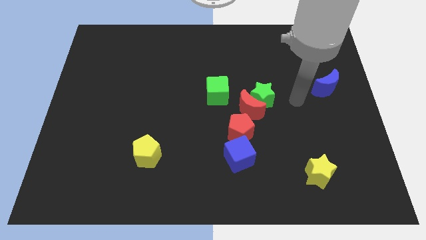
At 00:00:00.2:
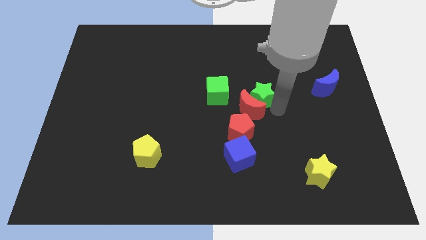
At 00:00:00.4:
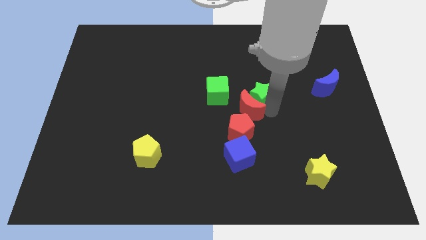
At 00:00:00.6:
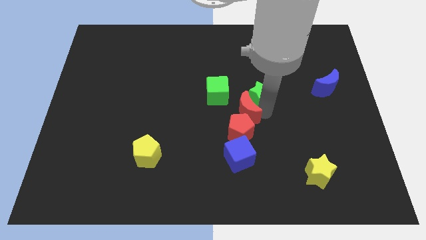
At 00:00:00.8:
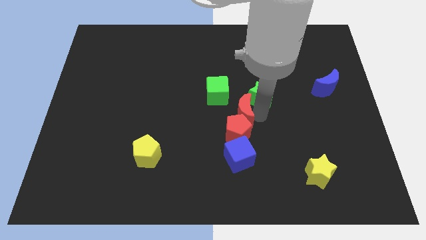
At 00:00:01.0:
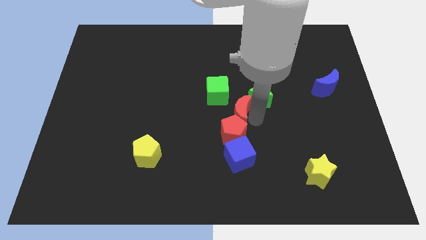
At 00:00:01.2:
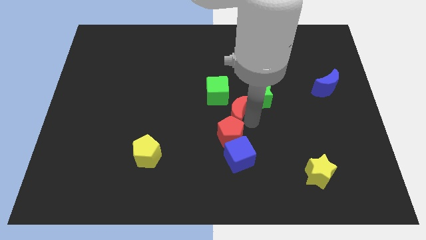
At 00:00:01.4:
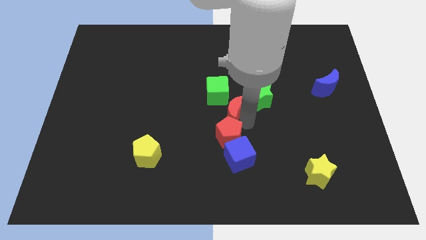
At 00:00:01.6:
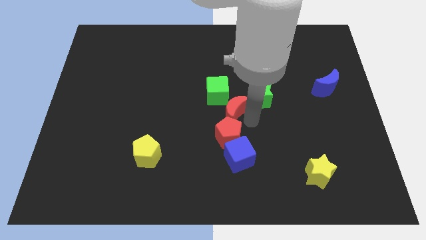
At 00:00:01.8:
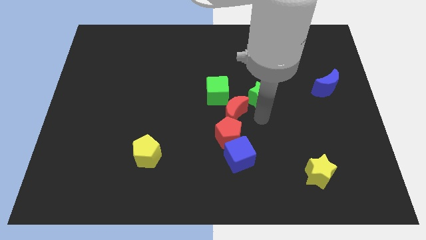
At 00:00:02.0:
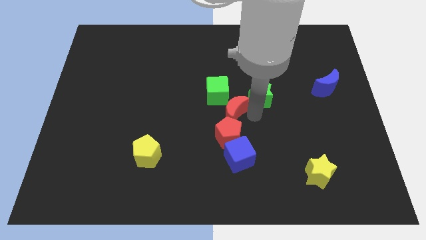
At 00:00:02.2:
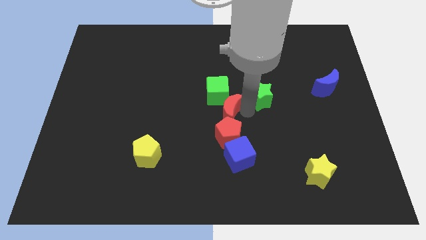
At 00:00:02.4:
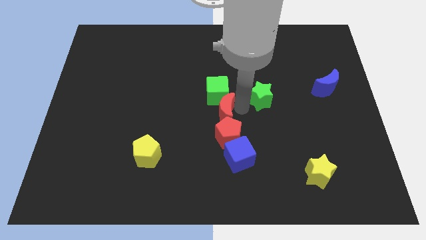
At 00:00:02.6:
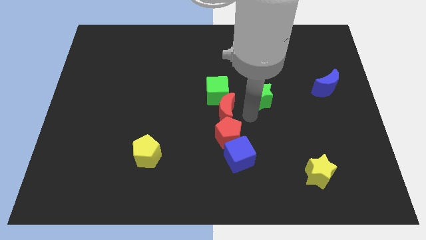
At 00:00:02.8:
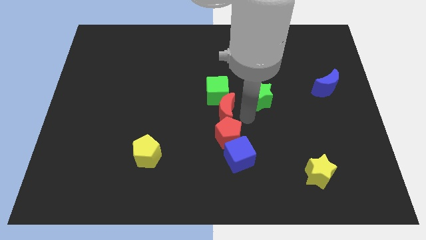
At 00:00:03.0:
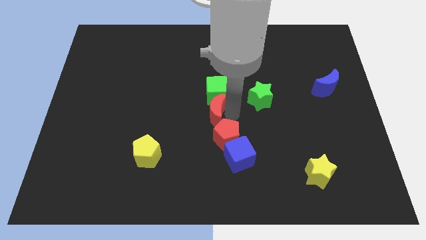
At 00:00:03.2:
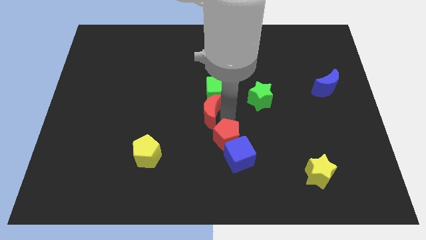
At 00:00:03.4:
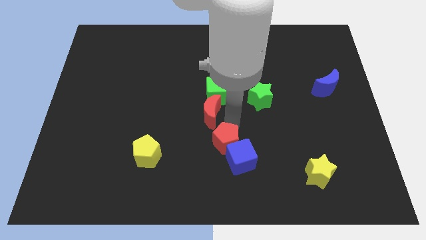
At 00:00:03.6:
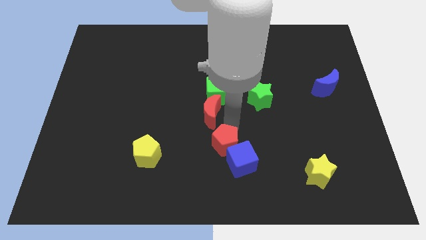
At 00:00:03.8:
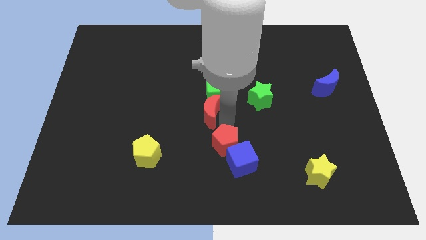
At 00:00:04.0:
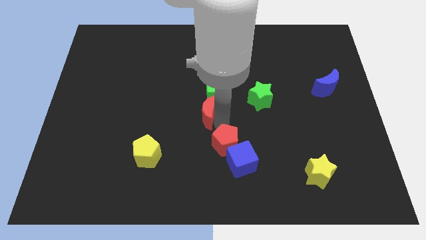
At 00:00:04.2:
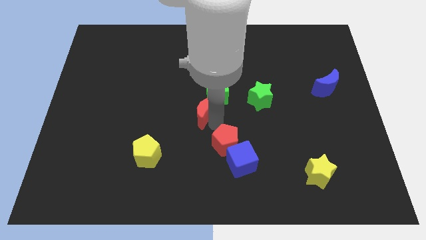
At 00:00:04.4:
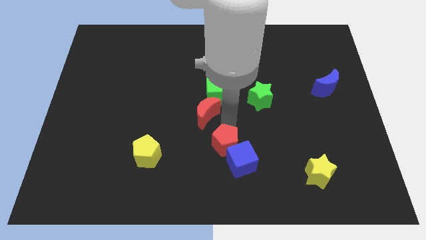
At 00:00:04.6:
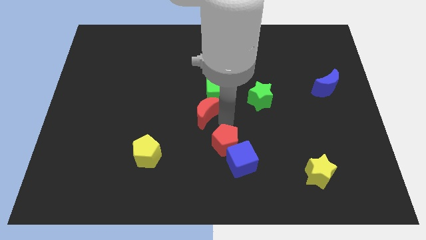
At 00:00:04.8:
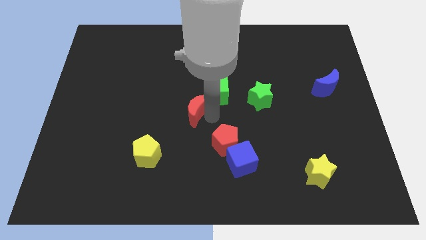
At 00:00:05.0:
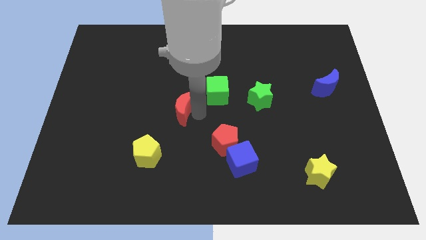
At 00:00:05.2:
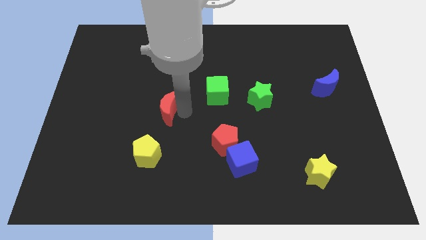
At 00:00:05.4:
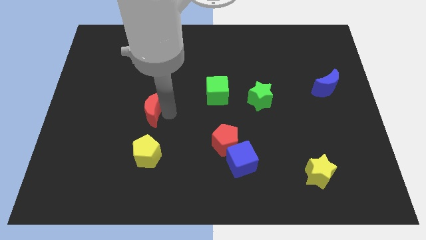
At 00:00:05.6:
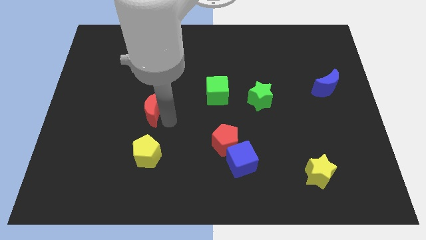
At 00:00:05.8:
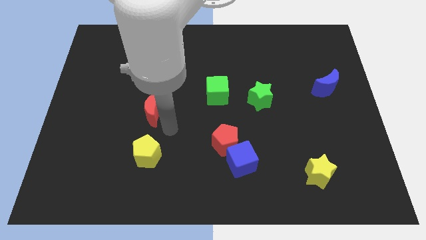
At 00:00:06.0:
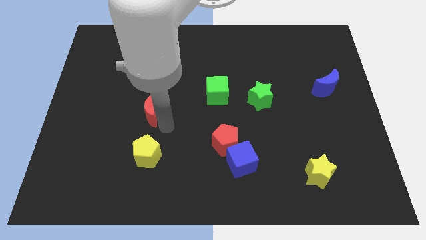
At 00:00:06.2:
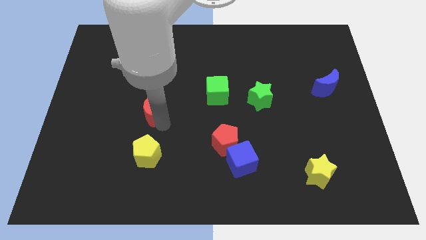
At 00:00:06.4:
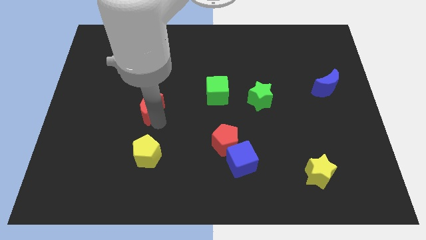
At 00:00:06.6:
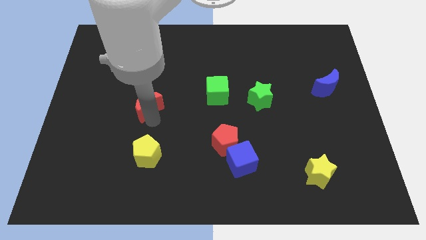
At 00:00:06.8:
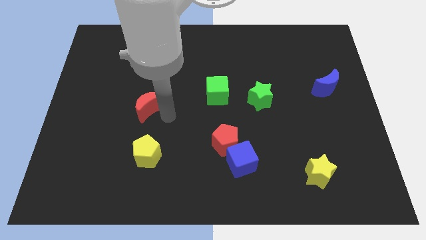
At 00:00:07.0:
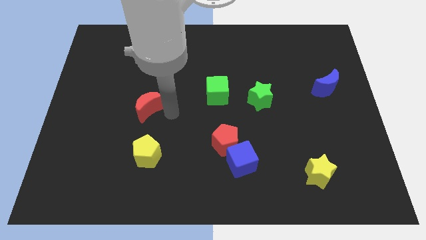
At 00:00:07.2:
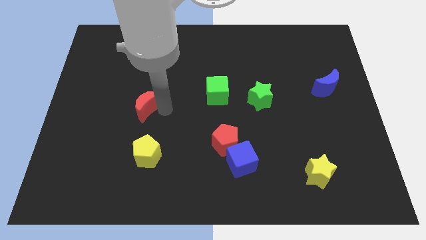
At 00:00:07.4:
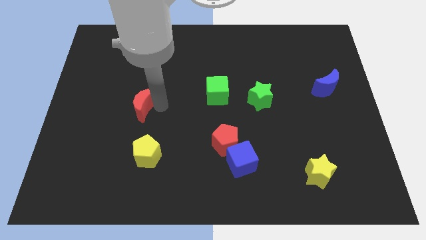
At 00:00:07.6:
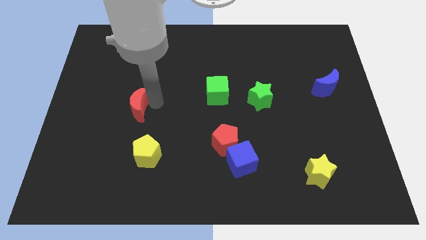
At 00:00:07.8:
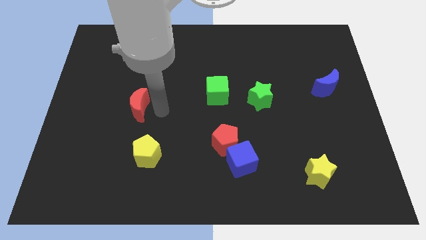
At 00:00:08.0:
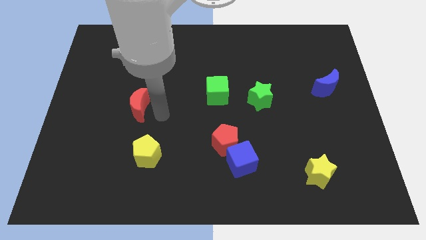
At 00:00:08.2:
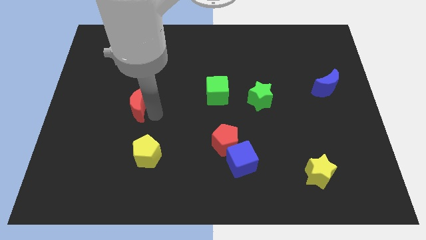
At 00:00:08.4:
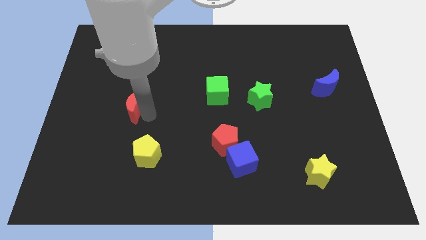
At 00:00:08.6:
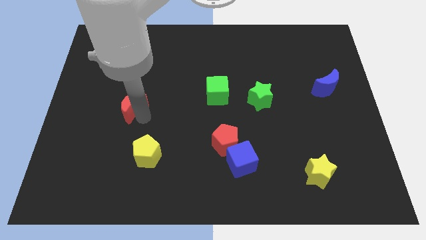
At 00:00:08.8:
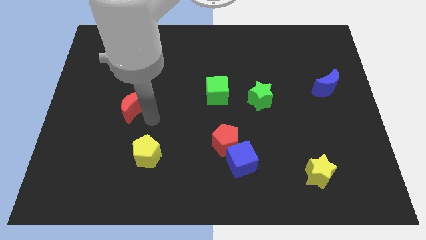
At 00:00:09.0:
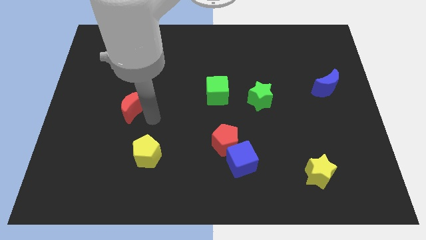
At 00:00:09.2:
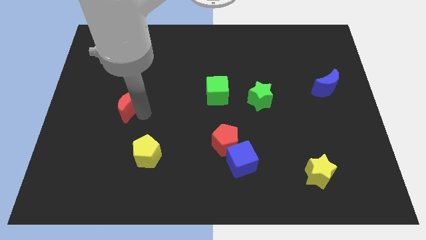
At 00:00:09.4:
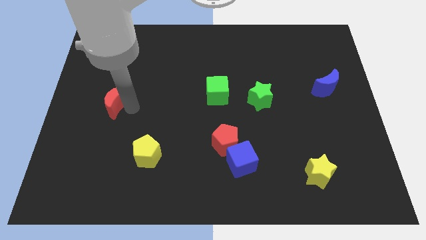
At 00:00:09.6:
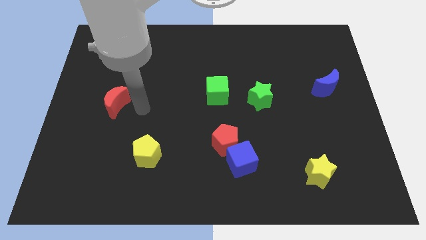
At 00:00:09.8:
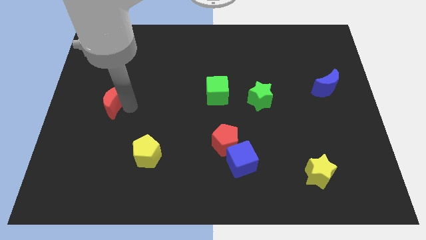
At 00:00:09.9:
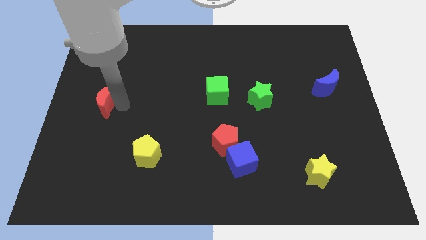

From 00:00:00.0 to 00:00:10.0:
put the red moon to the center left

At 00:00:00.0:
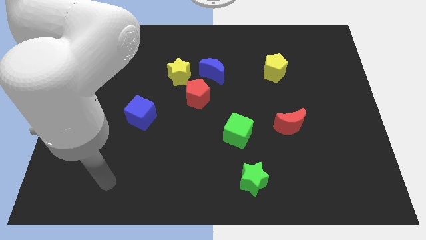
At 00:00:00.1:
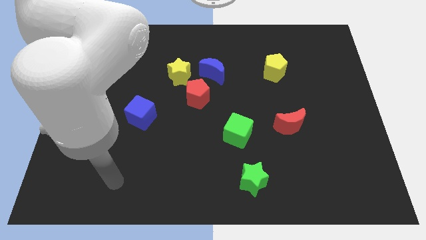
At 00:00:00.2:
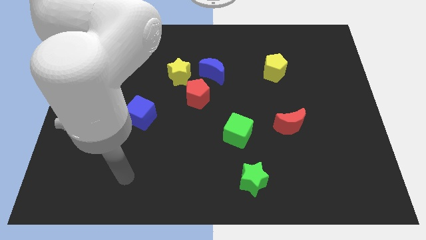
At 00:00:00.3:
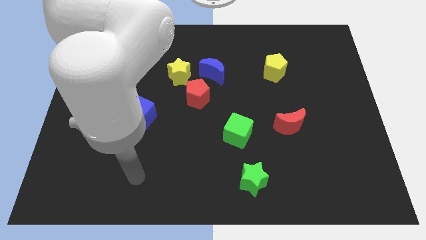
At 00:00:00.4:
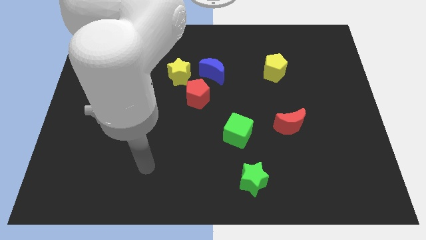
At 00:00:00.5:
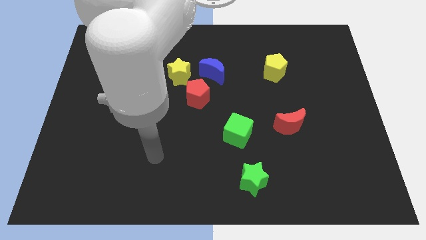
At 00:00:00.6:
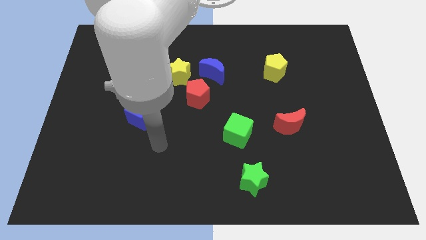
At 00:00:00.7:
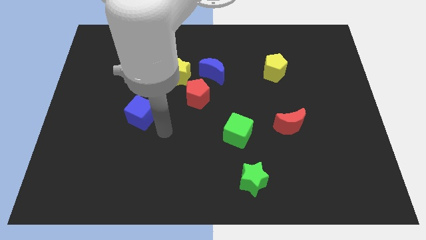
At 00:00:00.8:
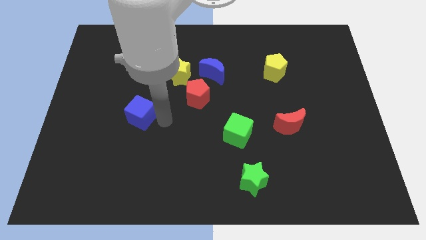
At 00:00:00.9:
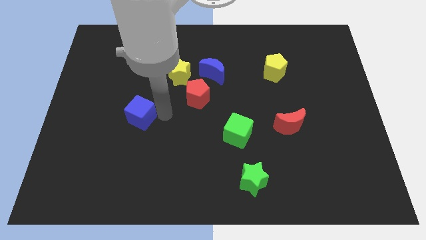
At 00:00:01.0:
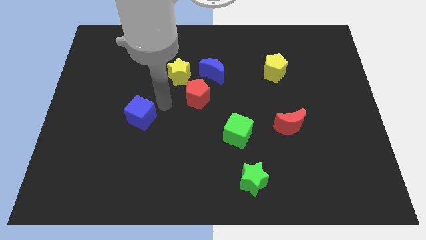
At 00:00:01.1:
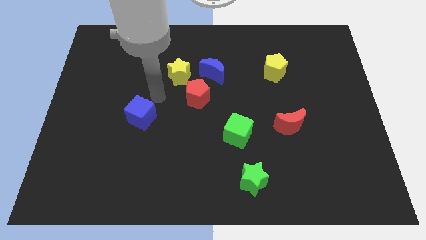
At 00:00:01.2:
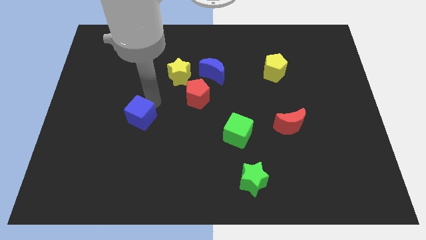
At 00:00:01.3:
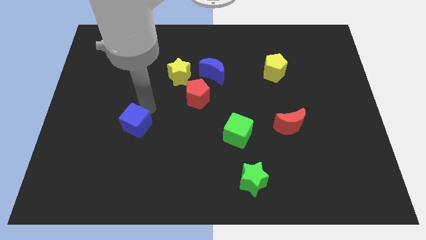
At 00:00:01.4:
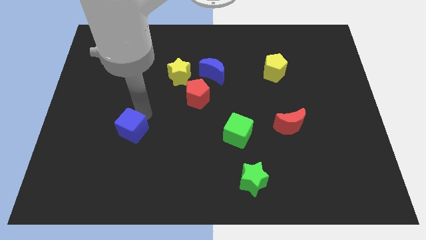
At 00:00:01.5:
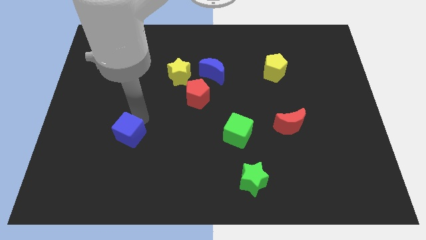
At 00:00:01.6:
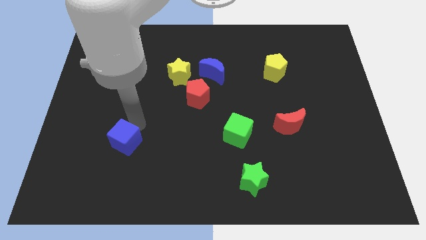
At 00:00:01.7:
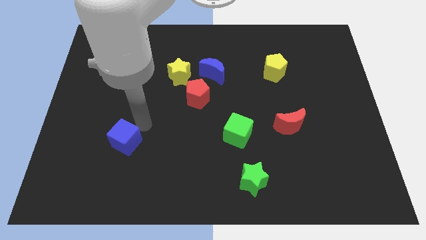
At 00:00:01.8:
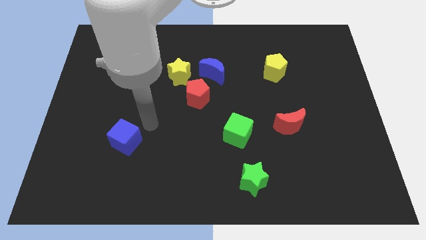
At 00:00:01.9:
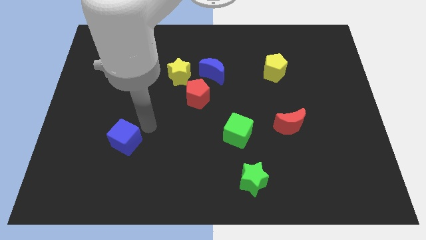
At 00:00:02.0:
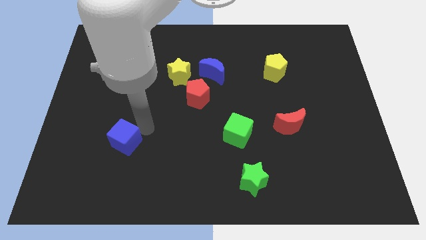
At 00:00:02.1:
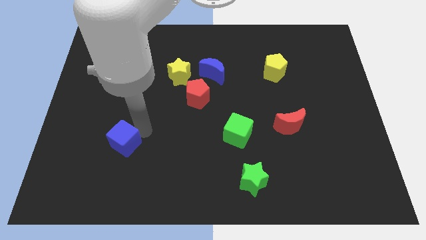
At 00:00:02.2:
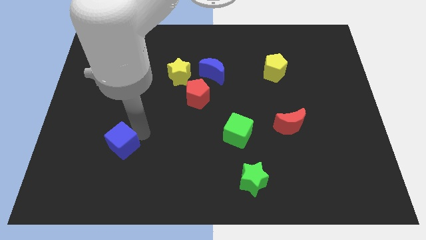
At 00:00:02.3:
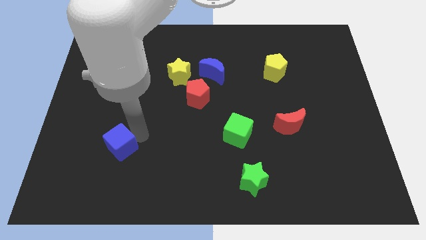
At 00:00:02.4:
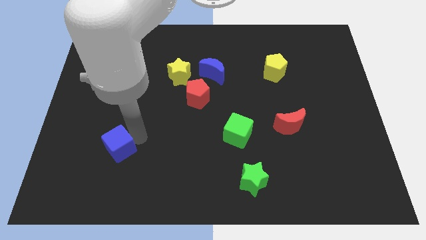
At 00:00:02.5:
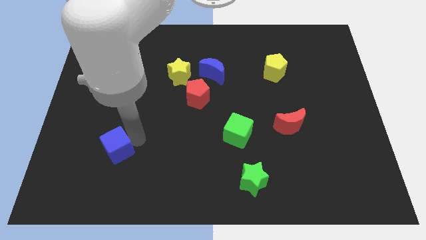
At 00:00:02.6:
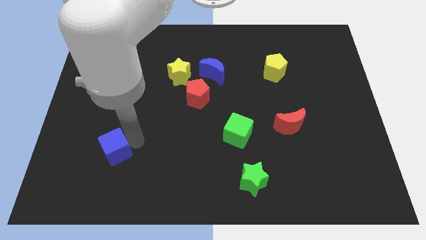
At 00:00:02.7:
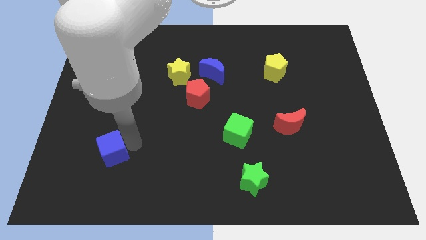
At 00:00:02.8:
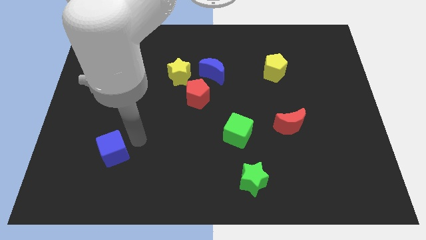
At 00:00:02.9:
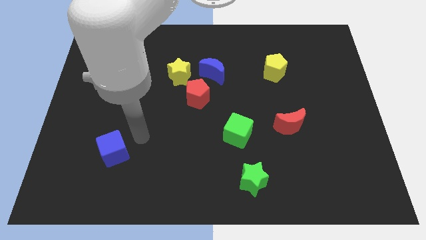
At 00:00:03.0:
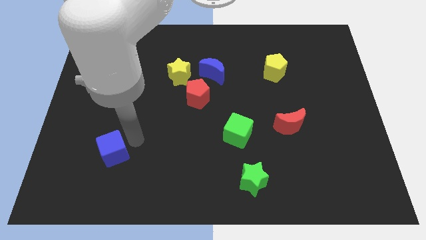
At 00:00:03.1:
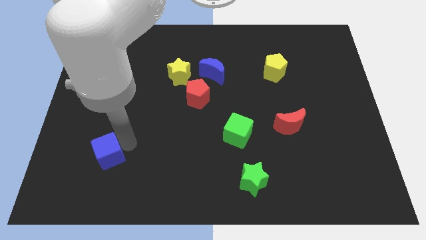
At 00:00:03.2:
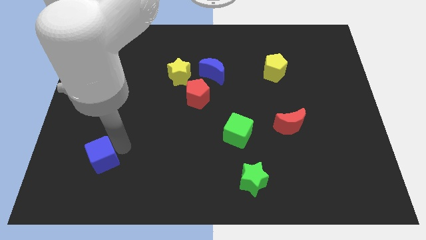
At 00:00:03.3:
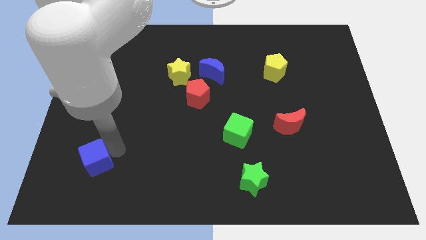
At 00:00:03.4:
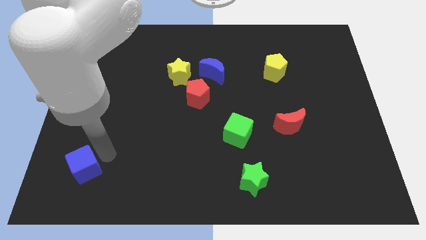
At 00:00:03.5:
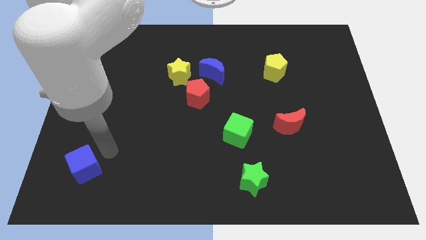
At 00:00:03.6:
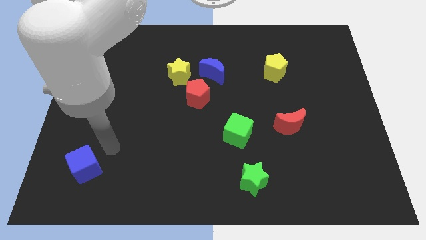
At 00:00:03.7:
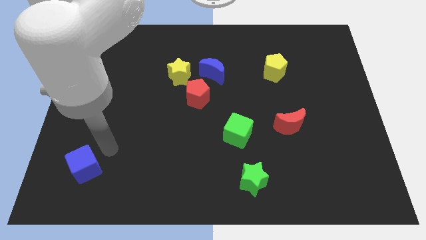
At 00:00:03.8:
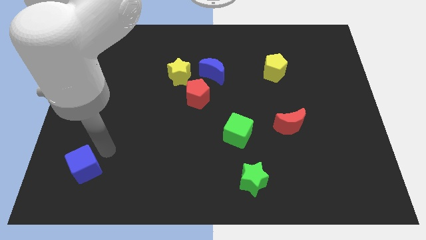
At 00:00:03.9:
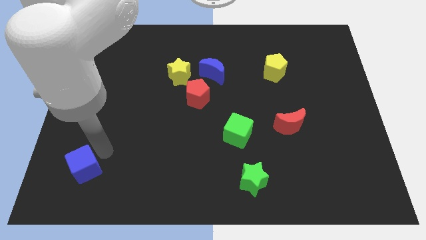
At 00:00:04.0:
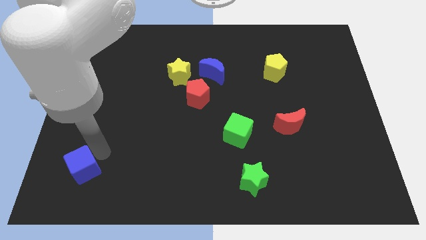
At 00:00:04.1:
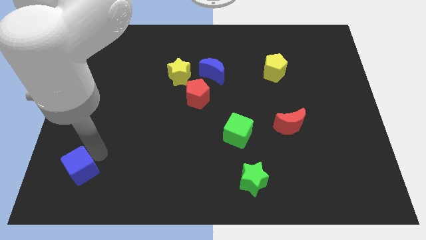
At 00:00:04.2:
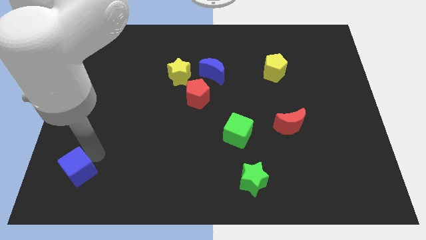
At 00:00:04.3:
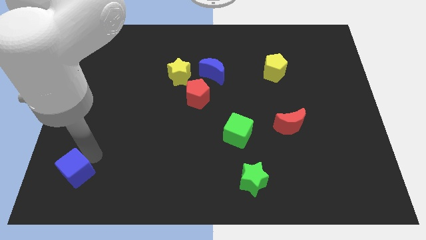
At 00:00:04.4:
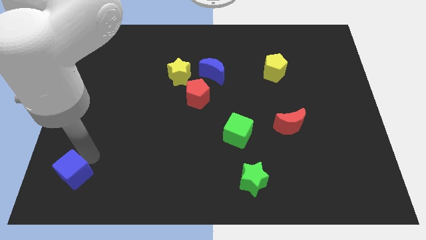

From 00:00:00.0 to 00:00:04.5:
slide the blue cube to the lower left corner
